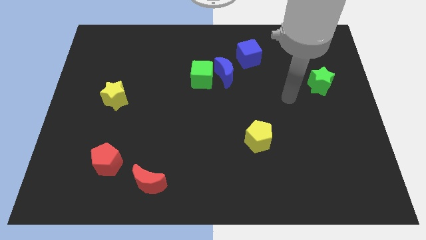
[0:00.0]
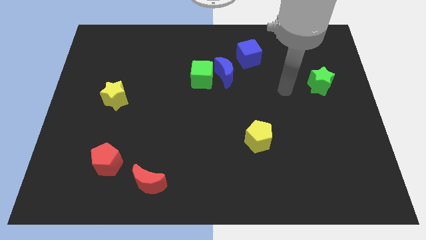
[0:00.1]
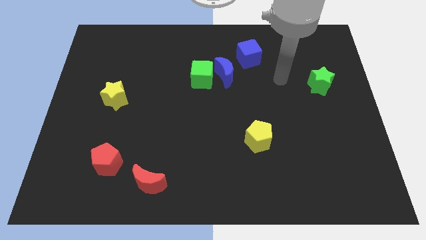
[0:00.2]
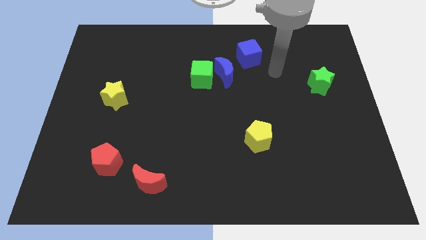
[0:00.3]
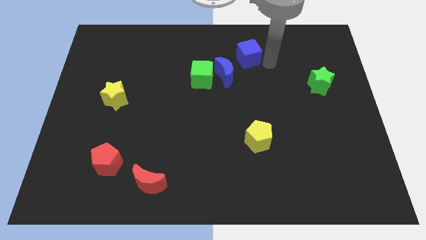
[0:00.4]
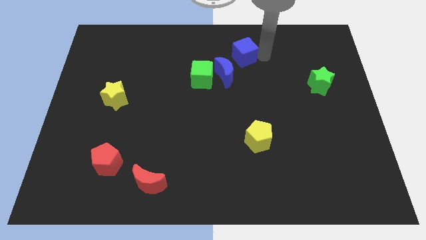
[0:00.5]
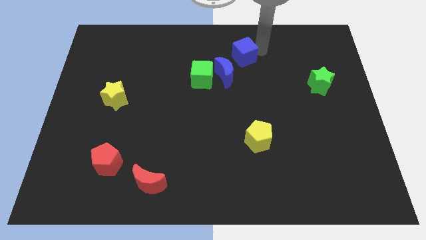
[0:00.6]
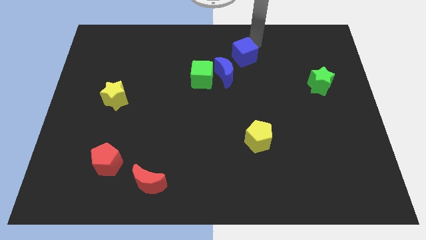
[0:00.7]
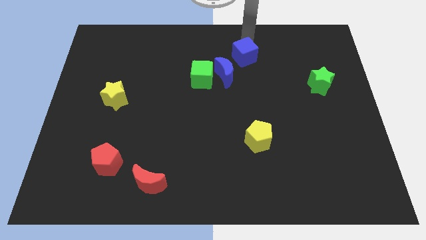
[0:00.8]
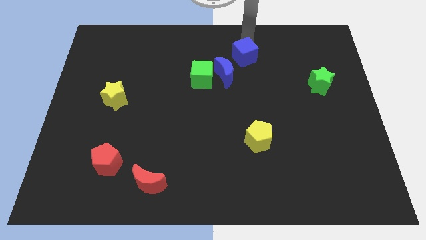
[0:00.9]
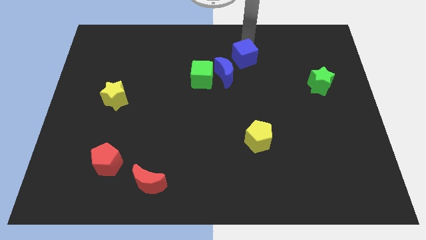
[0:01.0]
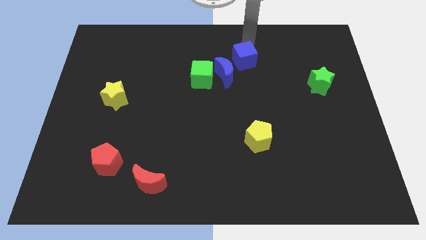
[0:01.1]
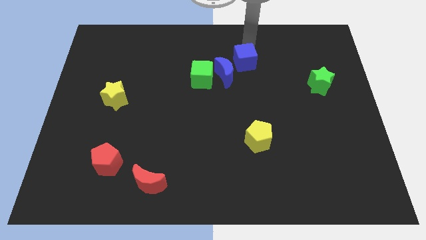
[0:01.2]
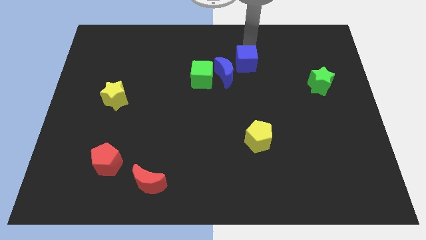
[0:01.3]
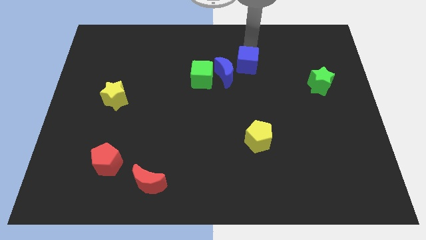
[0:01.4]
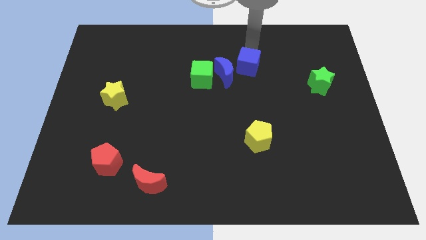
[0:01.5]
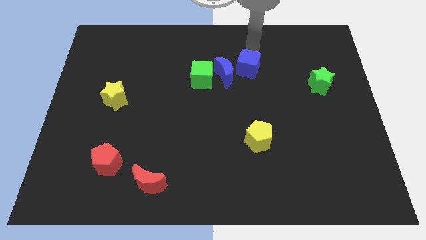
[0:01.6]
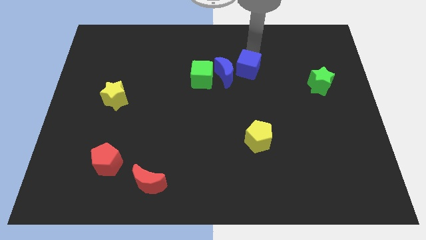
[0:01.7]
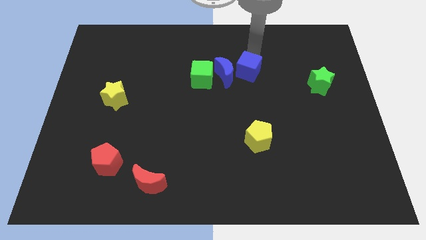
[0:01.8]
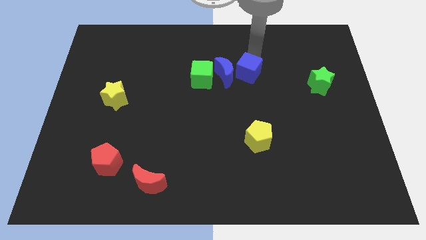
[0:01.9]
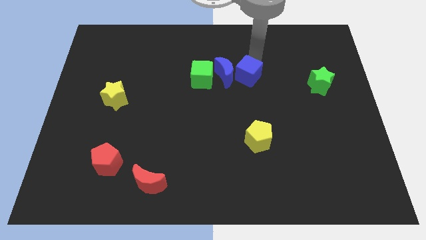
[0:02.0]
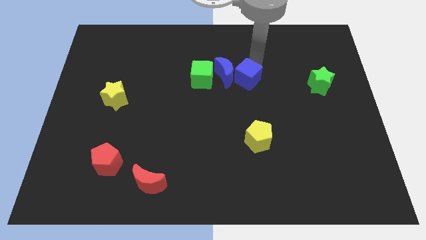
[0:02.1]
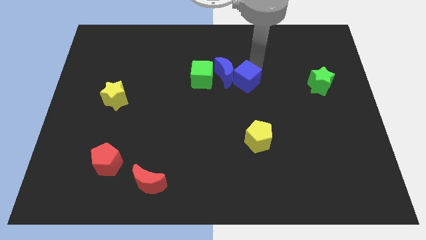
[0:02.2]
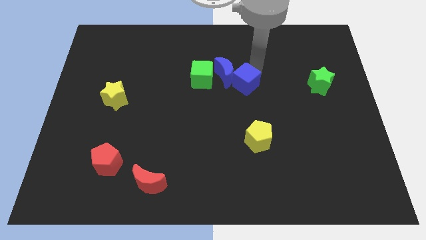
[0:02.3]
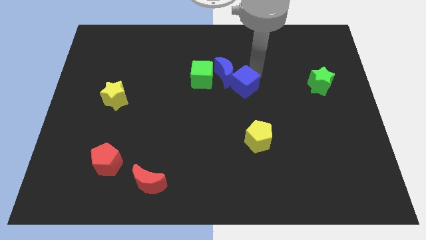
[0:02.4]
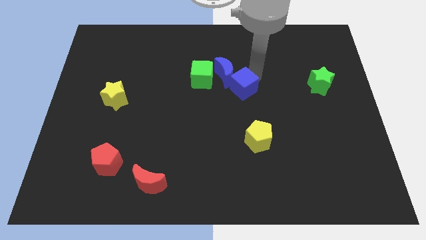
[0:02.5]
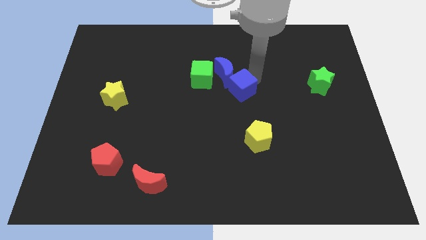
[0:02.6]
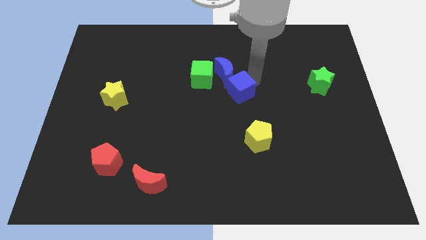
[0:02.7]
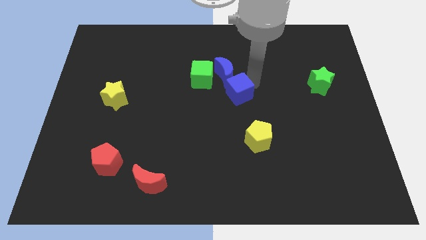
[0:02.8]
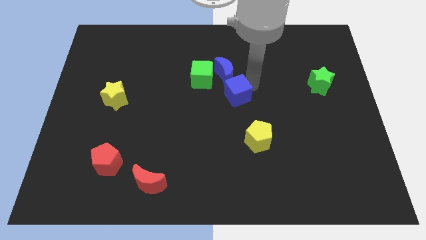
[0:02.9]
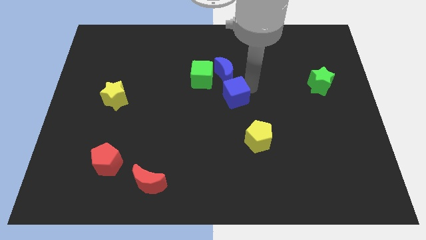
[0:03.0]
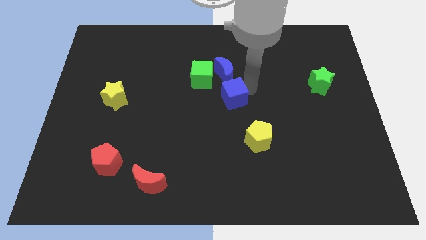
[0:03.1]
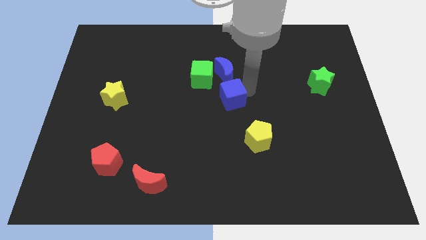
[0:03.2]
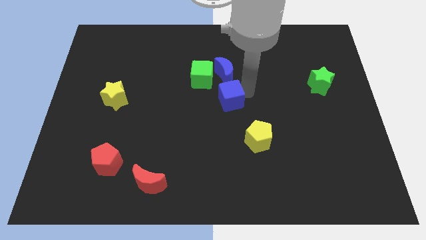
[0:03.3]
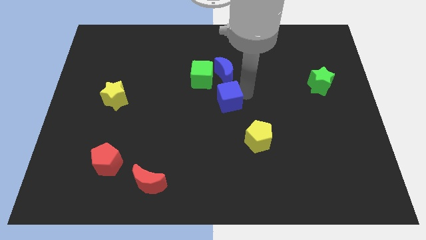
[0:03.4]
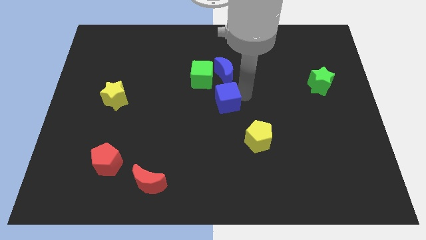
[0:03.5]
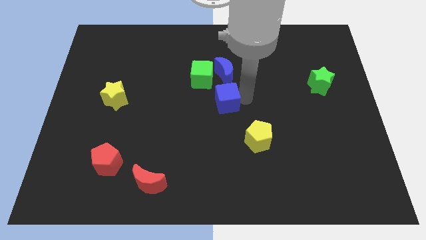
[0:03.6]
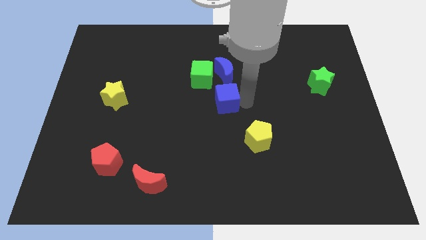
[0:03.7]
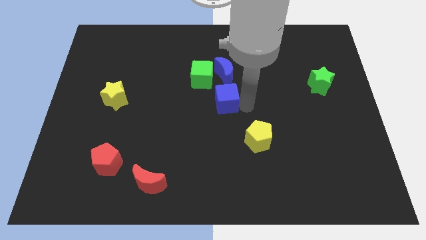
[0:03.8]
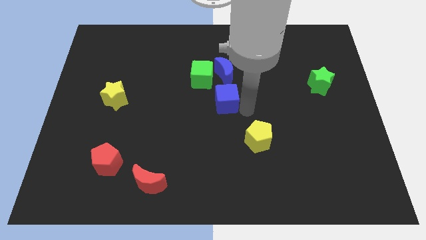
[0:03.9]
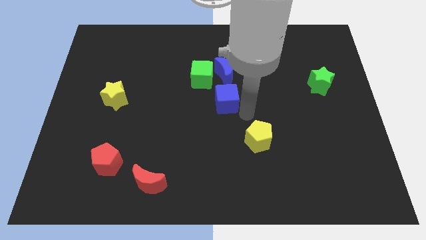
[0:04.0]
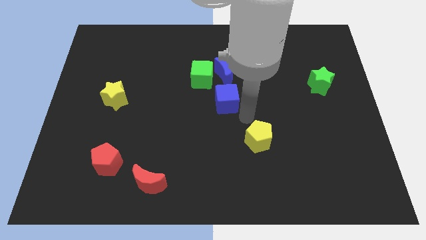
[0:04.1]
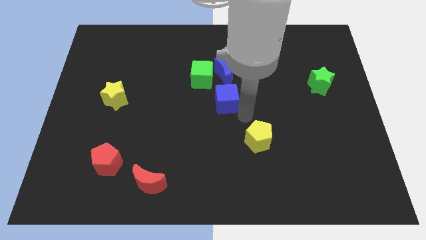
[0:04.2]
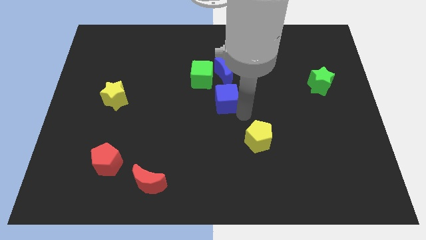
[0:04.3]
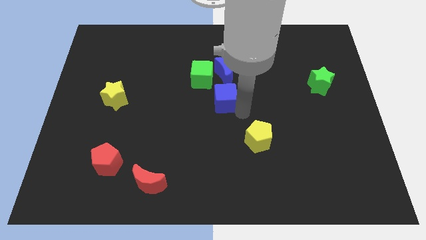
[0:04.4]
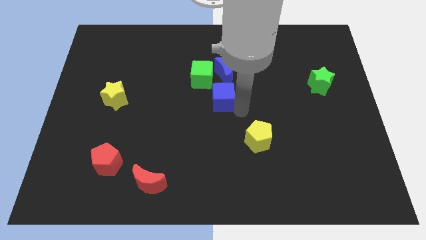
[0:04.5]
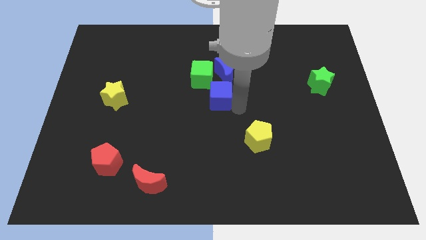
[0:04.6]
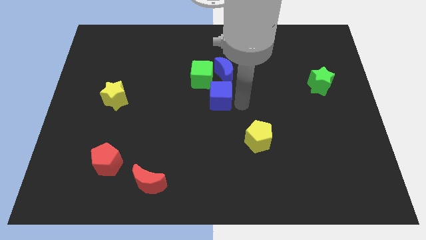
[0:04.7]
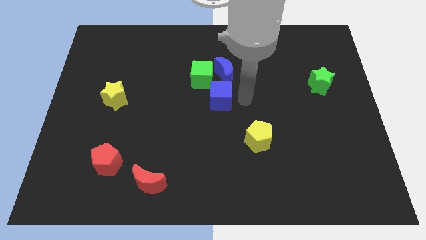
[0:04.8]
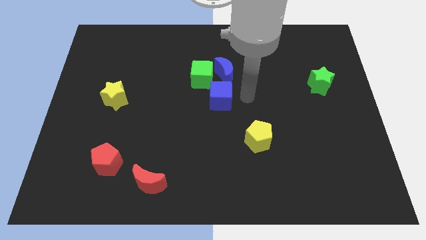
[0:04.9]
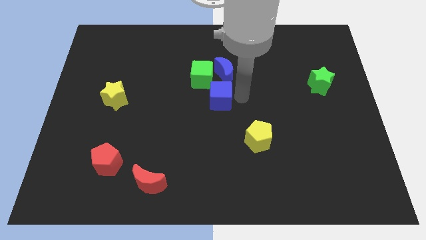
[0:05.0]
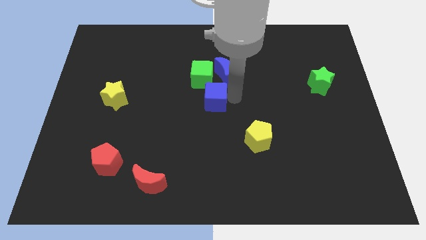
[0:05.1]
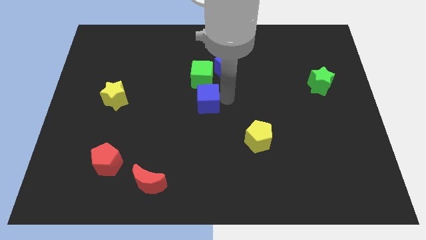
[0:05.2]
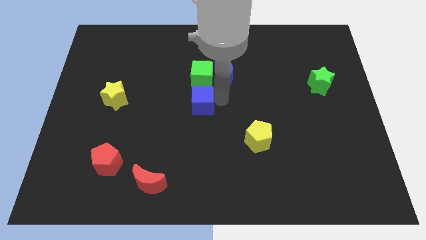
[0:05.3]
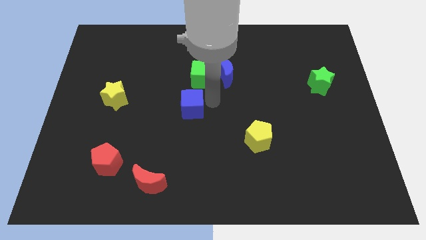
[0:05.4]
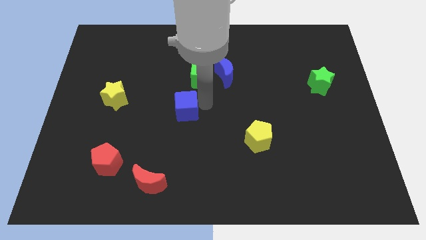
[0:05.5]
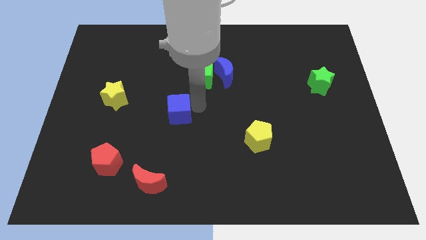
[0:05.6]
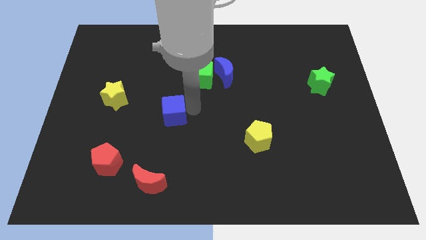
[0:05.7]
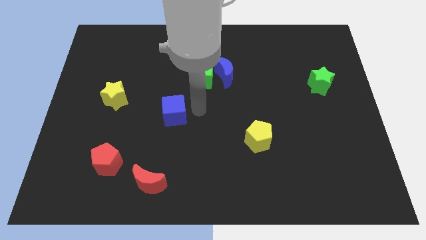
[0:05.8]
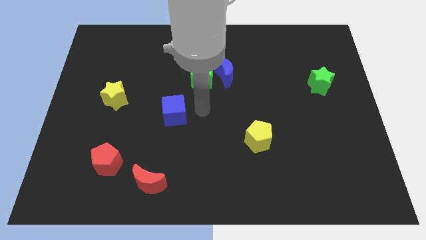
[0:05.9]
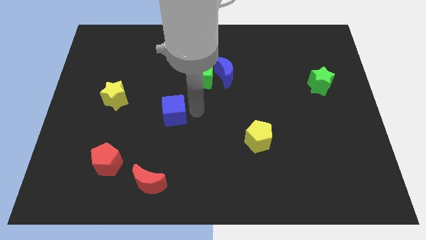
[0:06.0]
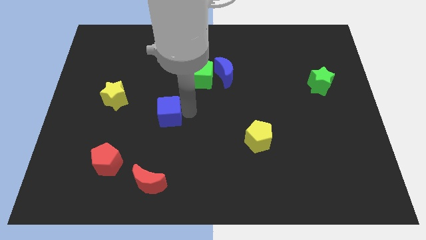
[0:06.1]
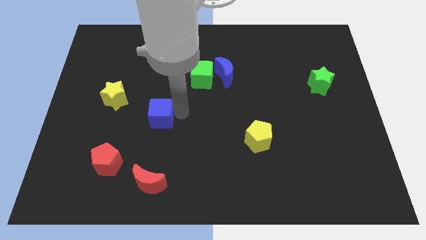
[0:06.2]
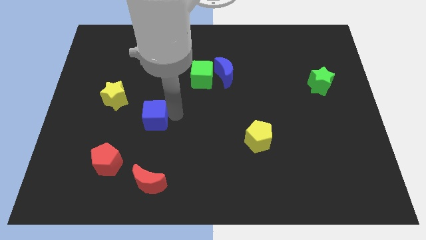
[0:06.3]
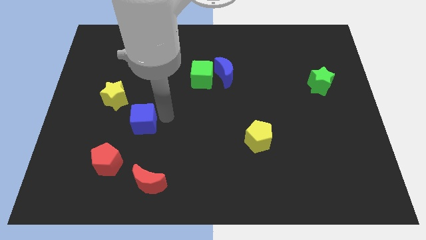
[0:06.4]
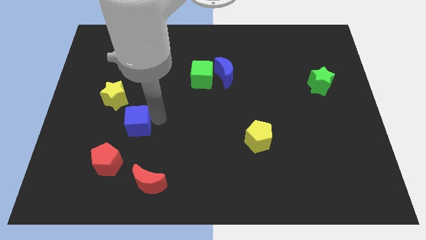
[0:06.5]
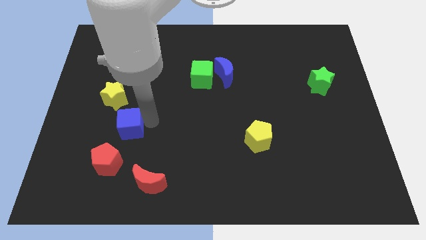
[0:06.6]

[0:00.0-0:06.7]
slide the blue cube above the red pentagon
